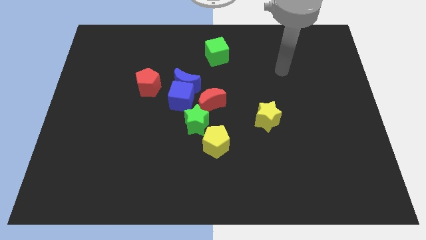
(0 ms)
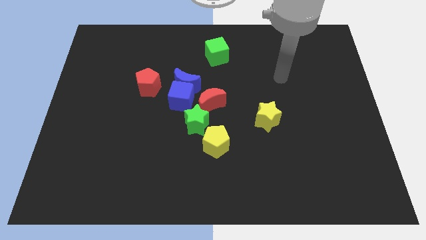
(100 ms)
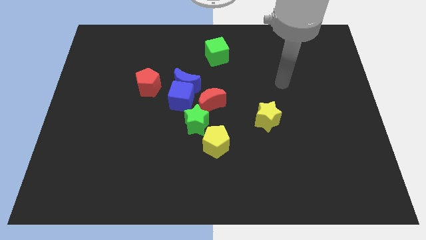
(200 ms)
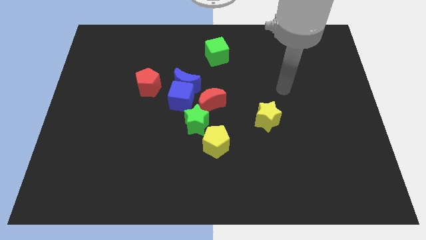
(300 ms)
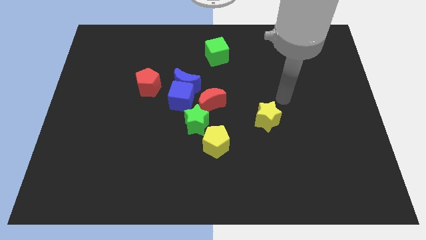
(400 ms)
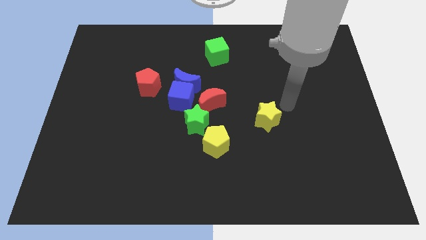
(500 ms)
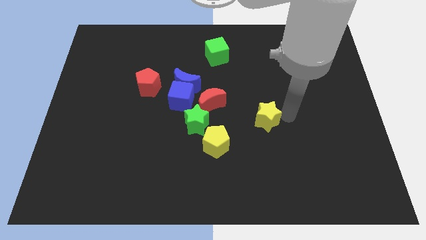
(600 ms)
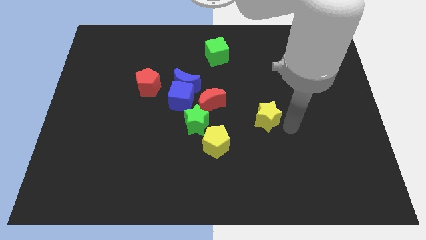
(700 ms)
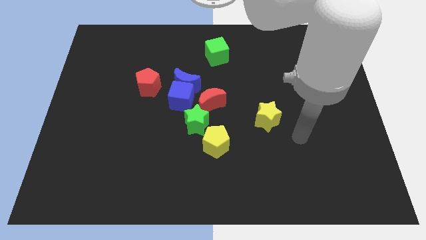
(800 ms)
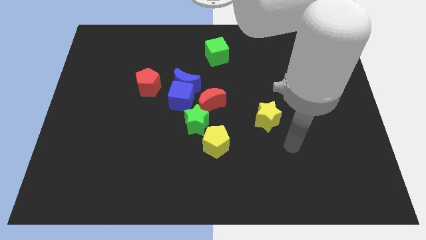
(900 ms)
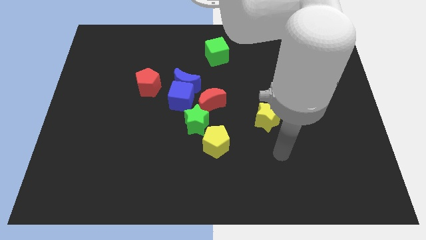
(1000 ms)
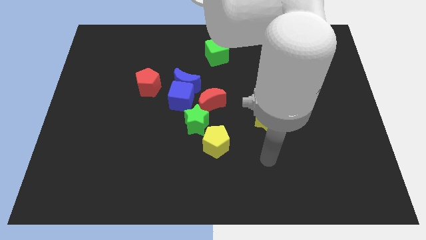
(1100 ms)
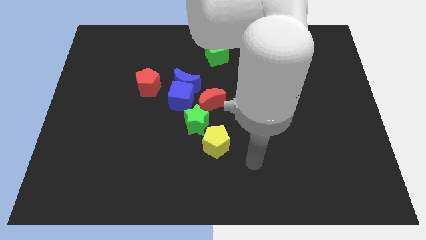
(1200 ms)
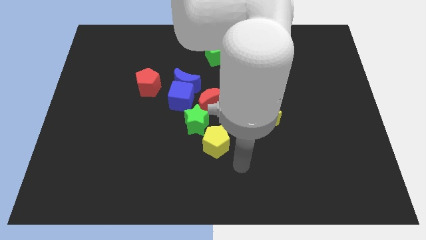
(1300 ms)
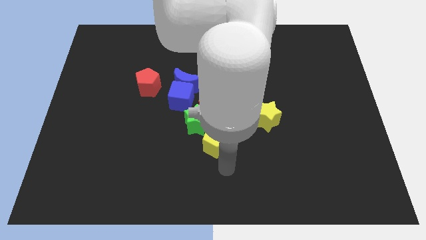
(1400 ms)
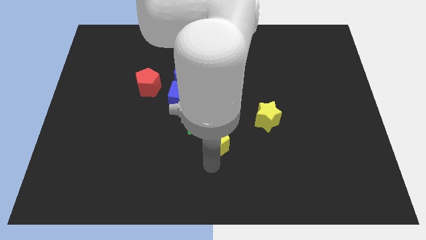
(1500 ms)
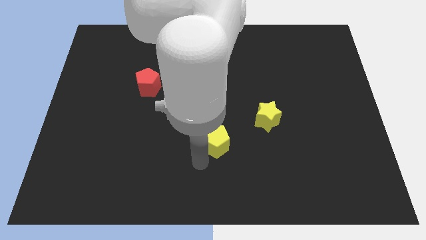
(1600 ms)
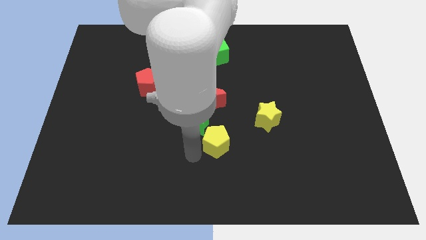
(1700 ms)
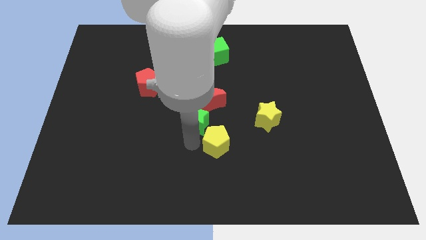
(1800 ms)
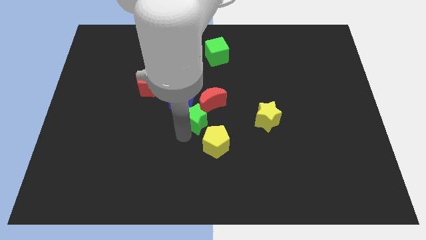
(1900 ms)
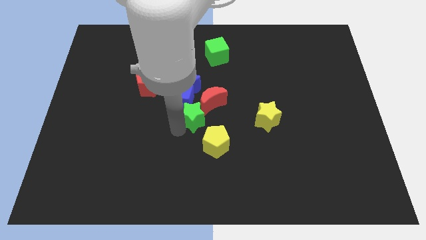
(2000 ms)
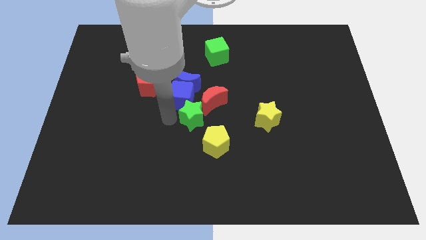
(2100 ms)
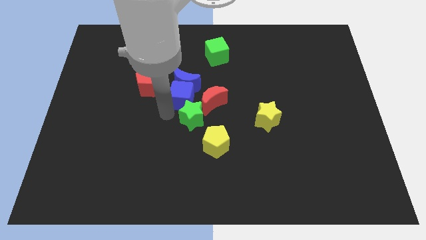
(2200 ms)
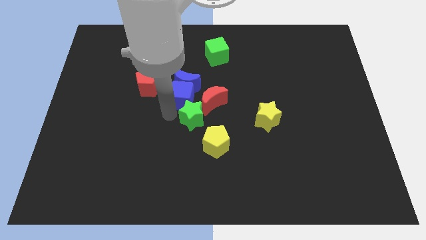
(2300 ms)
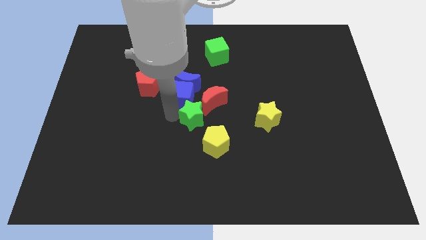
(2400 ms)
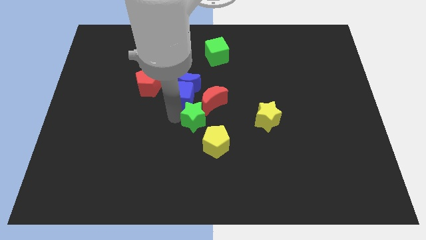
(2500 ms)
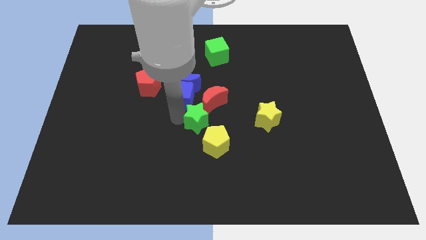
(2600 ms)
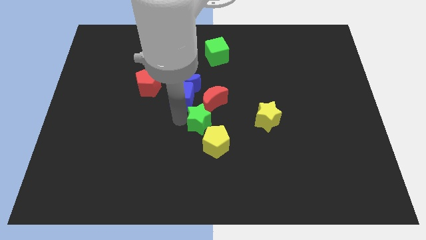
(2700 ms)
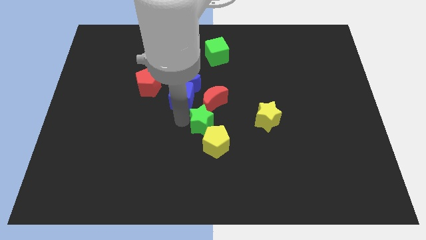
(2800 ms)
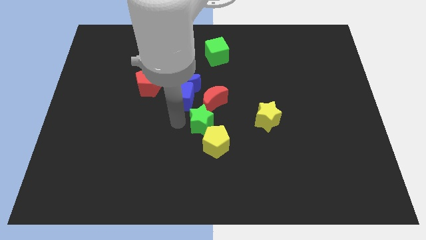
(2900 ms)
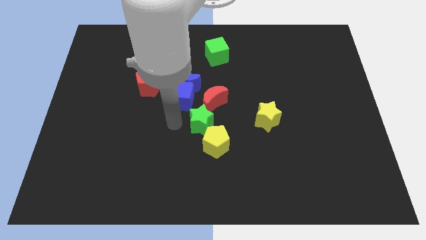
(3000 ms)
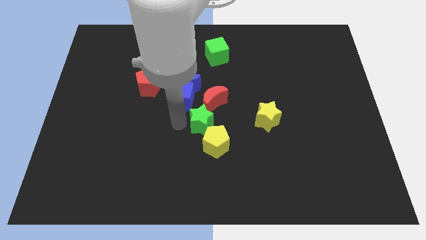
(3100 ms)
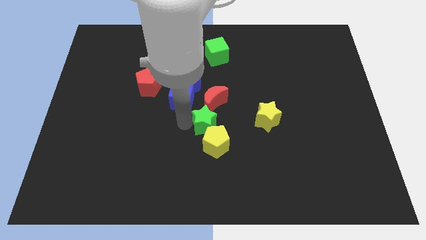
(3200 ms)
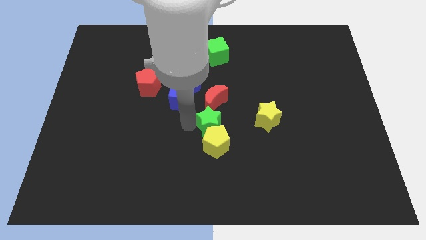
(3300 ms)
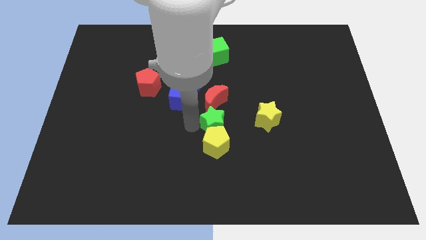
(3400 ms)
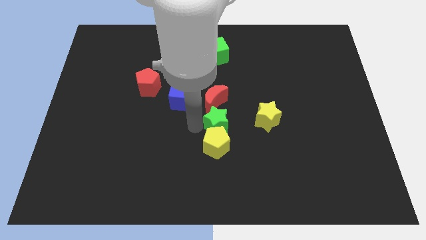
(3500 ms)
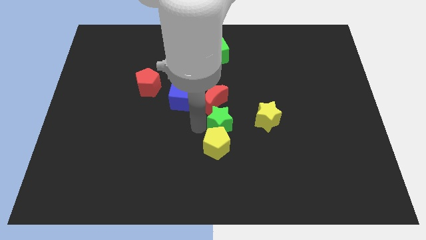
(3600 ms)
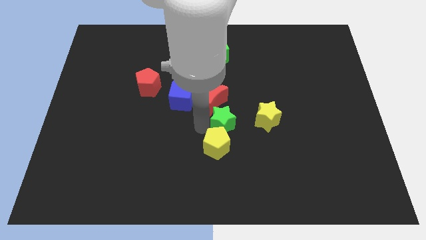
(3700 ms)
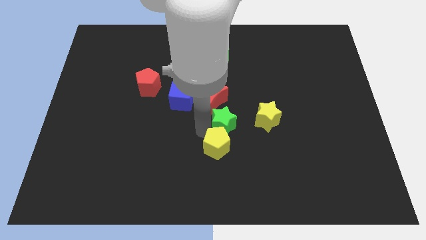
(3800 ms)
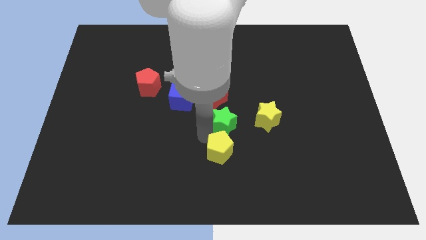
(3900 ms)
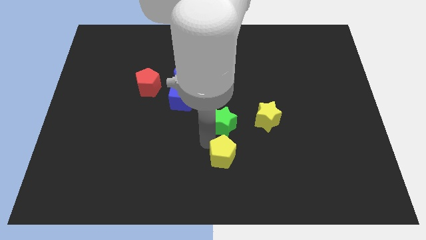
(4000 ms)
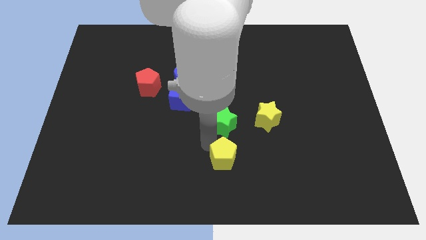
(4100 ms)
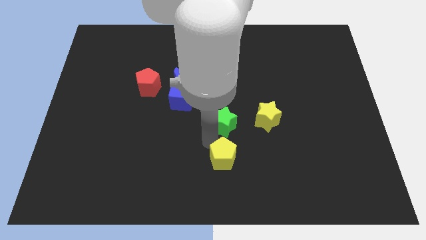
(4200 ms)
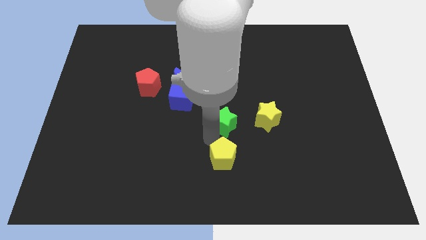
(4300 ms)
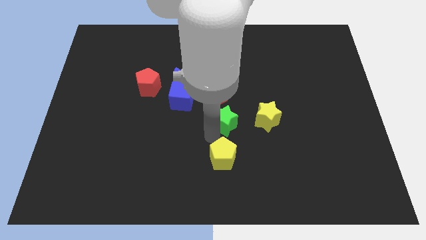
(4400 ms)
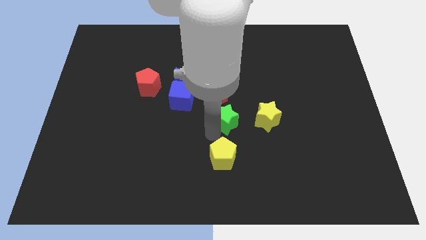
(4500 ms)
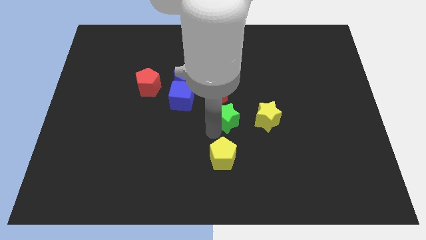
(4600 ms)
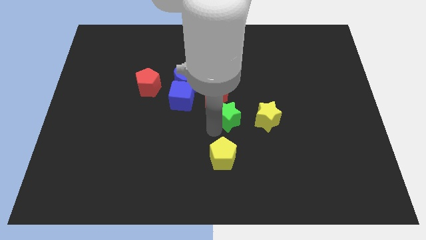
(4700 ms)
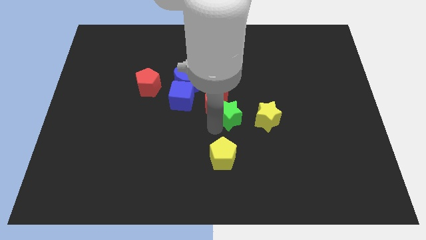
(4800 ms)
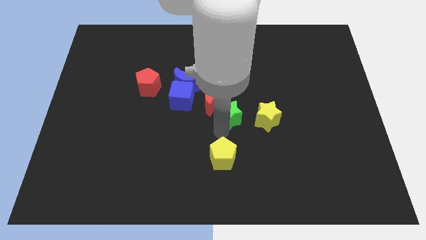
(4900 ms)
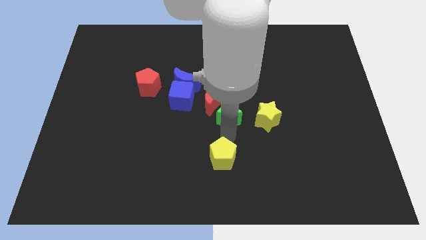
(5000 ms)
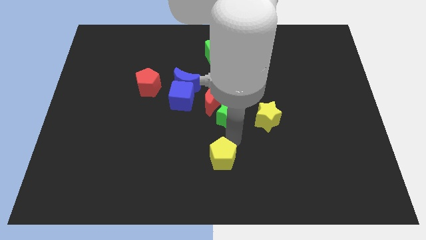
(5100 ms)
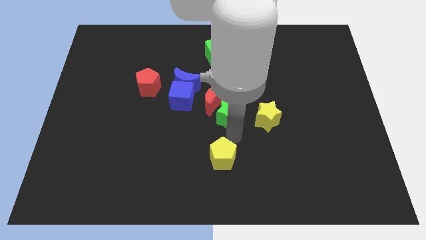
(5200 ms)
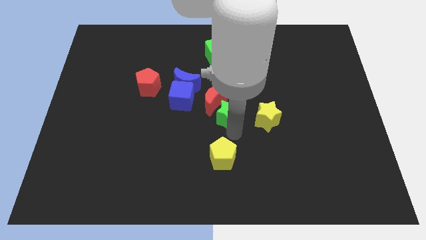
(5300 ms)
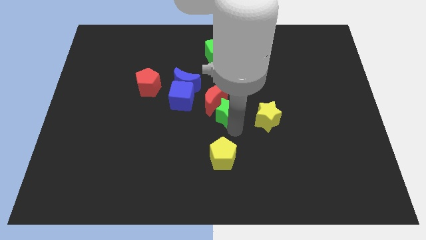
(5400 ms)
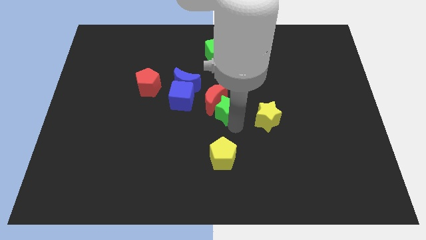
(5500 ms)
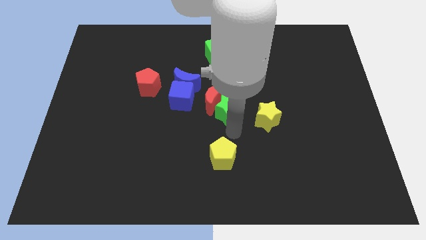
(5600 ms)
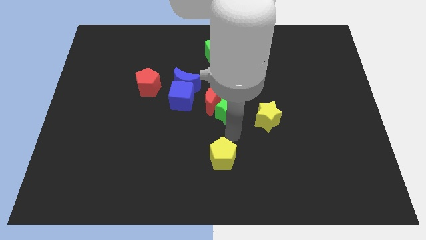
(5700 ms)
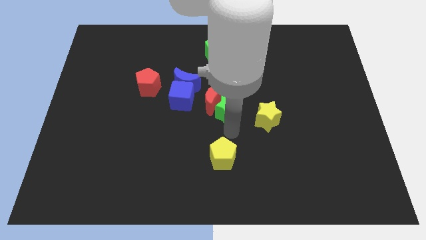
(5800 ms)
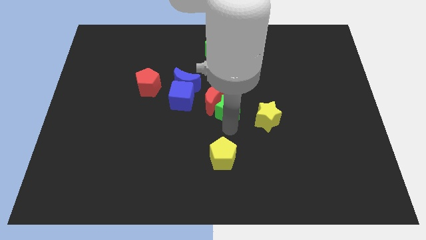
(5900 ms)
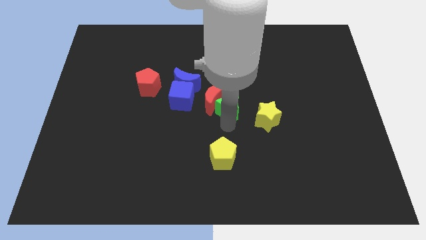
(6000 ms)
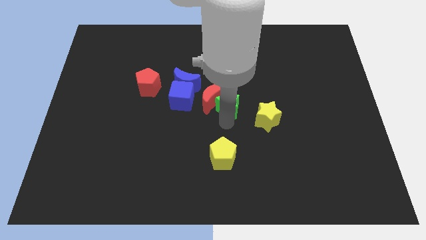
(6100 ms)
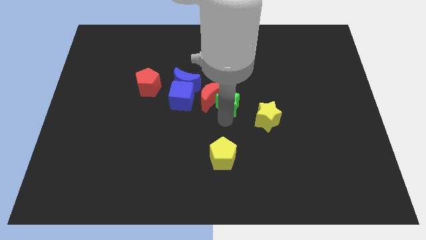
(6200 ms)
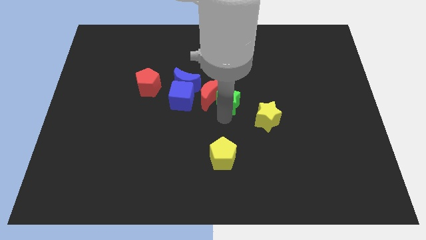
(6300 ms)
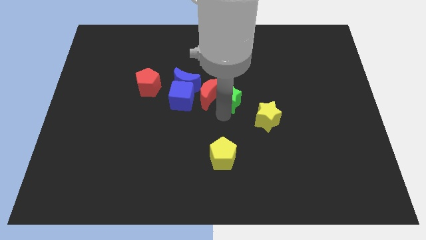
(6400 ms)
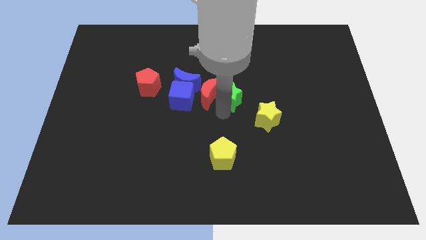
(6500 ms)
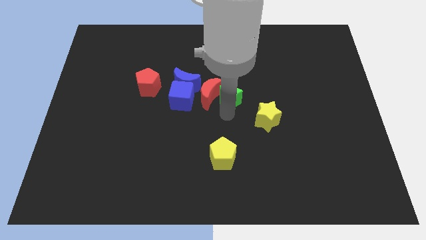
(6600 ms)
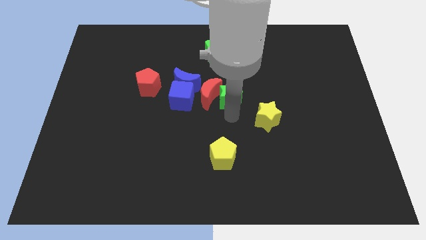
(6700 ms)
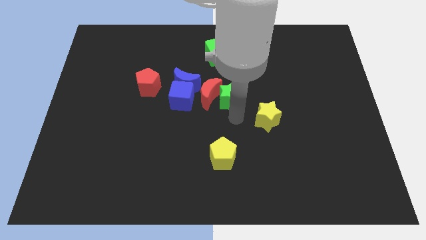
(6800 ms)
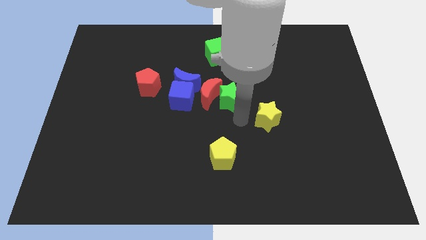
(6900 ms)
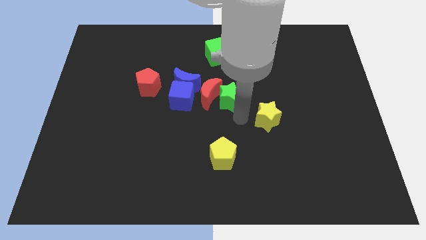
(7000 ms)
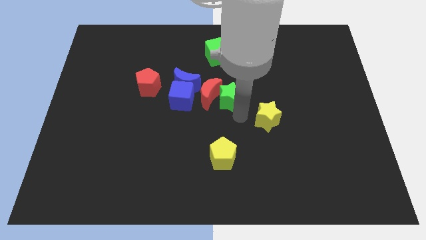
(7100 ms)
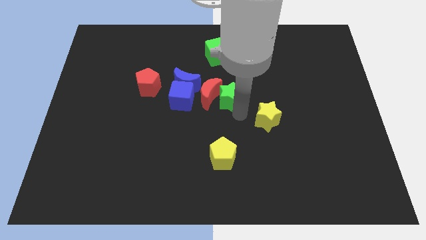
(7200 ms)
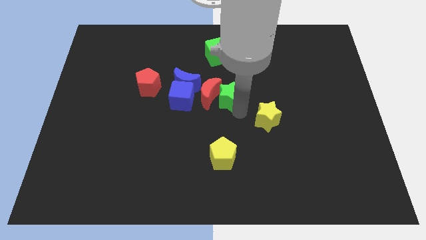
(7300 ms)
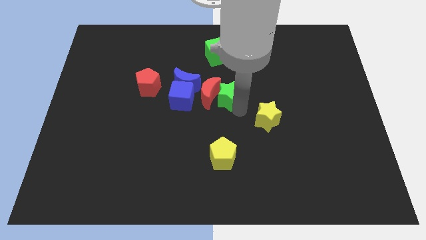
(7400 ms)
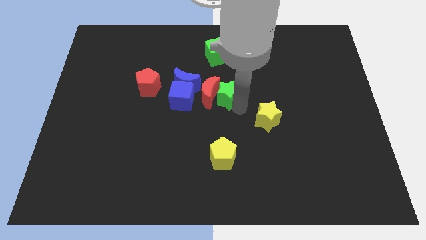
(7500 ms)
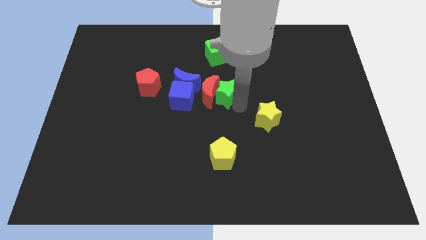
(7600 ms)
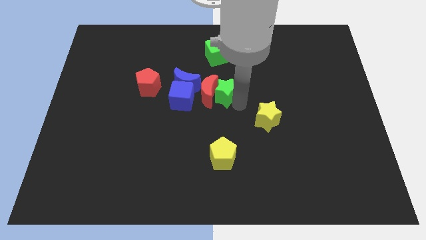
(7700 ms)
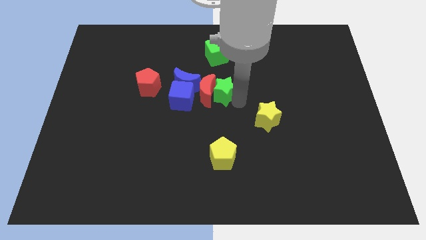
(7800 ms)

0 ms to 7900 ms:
move the green star upwards a bit
